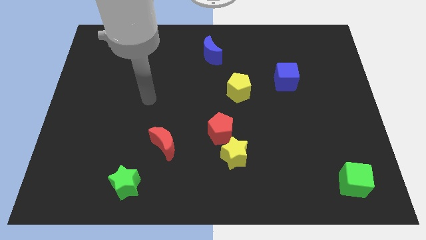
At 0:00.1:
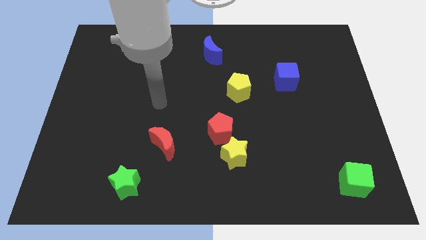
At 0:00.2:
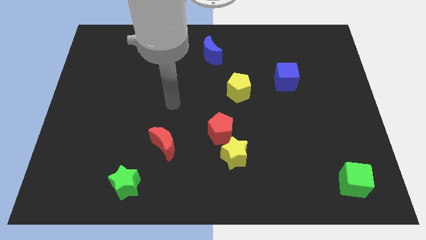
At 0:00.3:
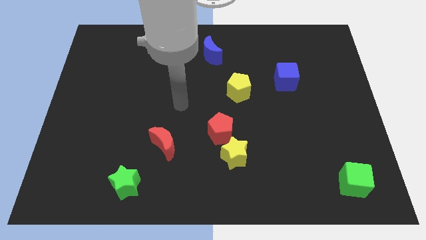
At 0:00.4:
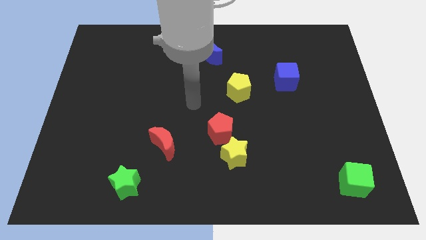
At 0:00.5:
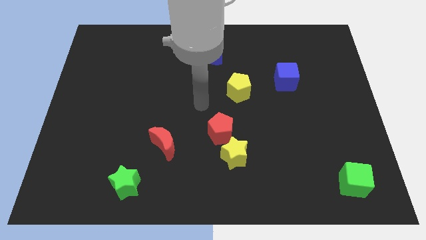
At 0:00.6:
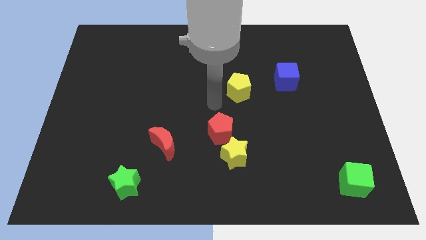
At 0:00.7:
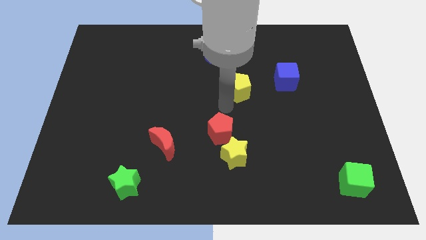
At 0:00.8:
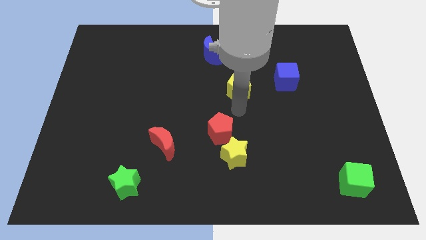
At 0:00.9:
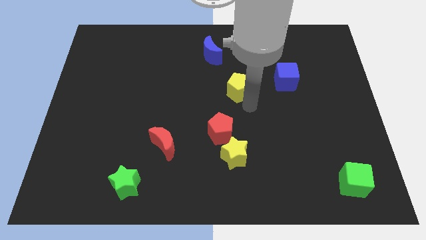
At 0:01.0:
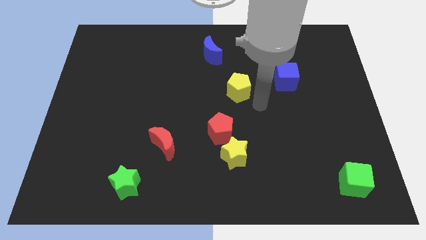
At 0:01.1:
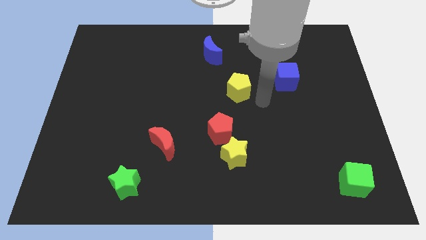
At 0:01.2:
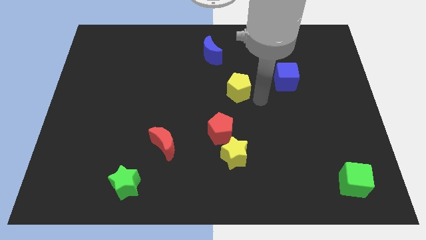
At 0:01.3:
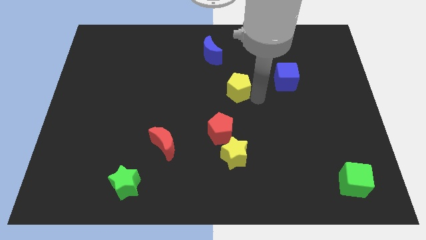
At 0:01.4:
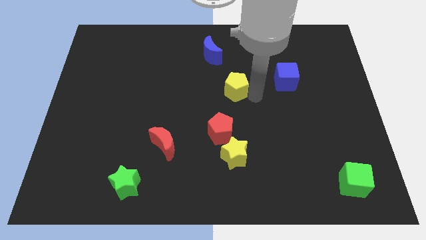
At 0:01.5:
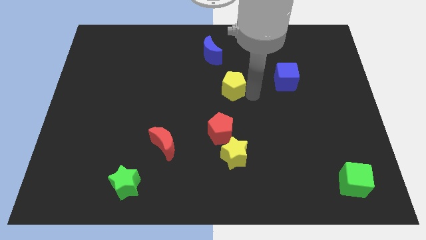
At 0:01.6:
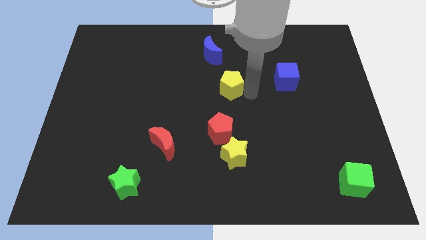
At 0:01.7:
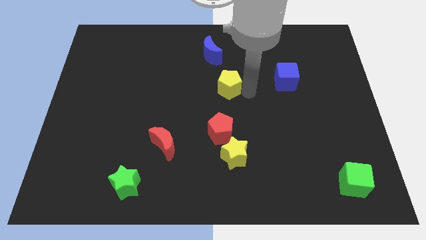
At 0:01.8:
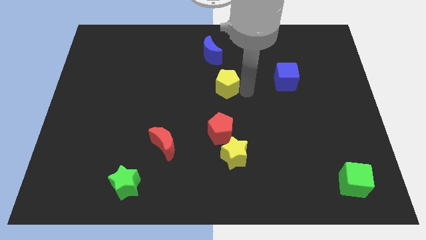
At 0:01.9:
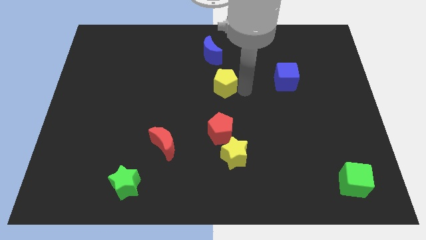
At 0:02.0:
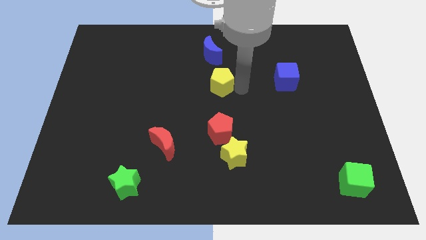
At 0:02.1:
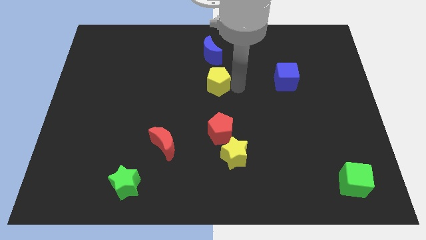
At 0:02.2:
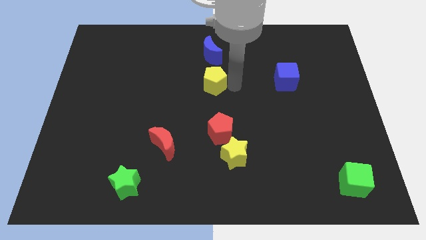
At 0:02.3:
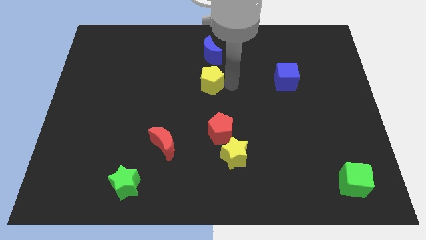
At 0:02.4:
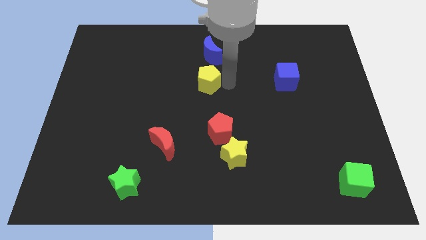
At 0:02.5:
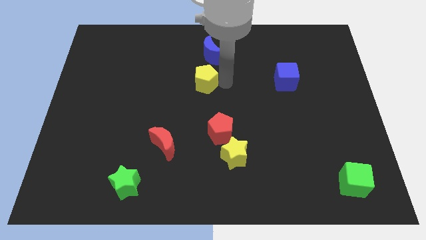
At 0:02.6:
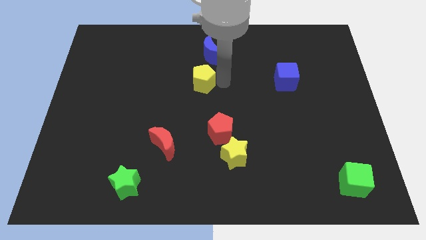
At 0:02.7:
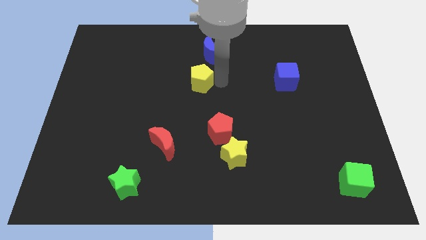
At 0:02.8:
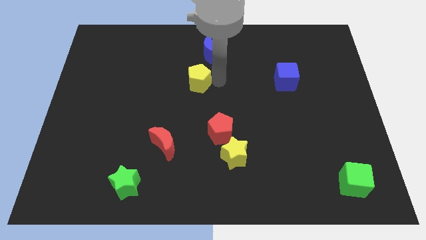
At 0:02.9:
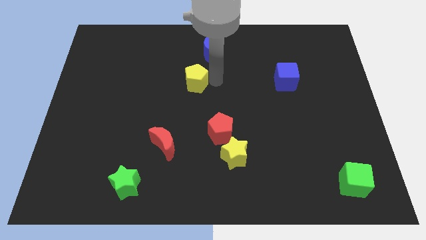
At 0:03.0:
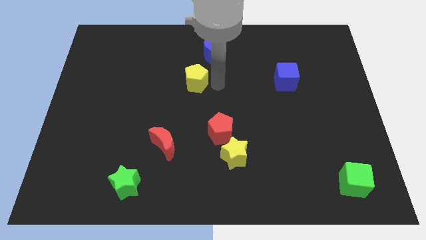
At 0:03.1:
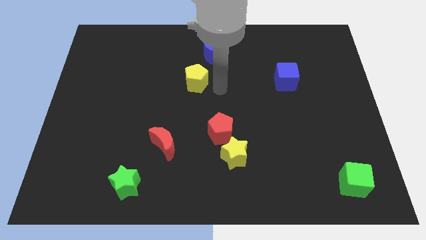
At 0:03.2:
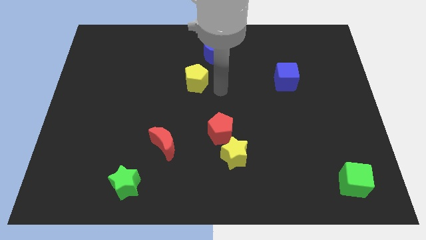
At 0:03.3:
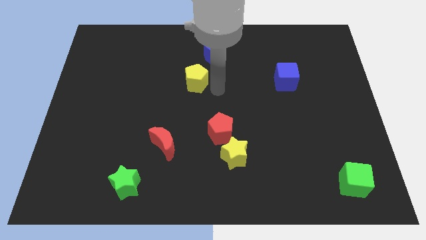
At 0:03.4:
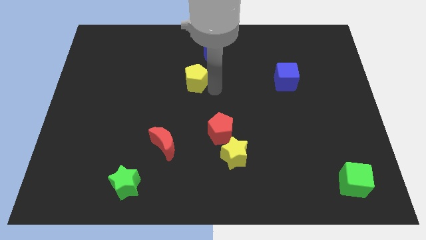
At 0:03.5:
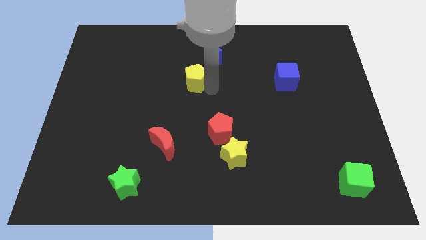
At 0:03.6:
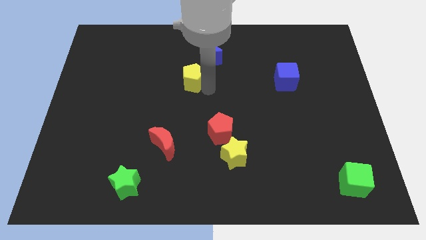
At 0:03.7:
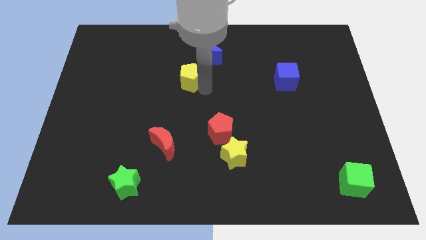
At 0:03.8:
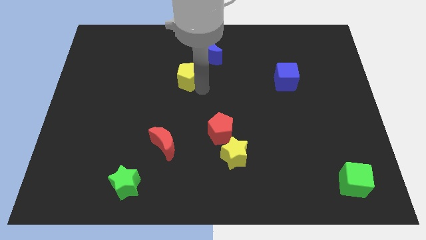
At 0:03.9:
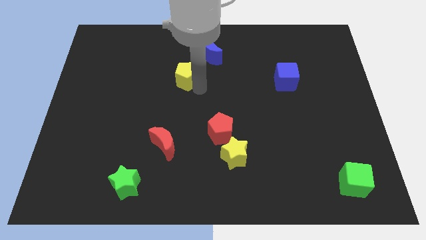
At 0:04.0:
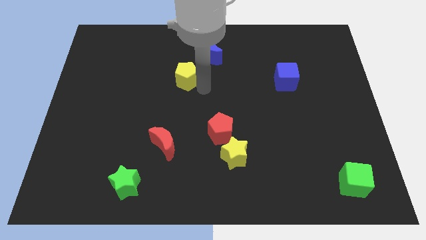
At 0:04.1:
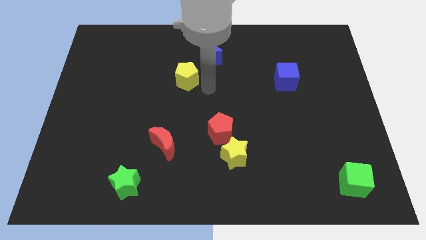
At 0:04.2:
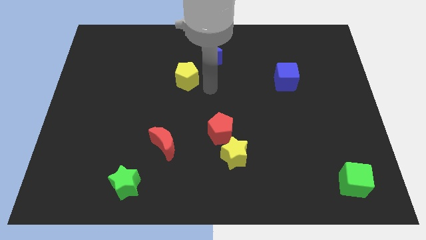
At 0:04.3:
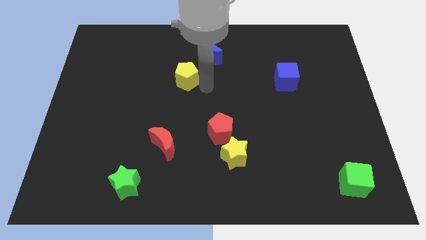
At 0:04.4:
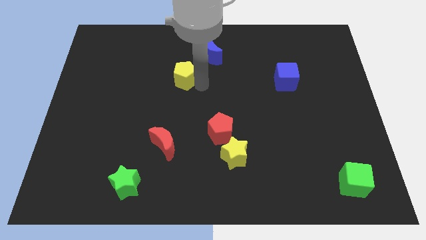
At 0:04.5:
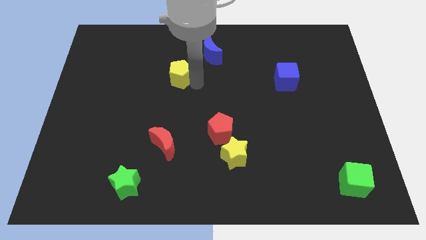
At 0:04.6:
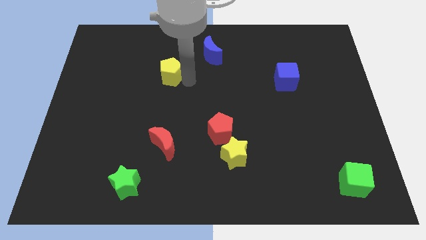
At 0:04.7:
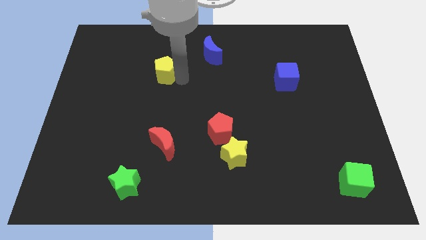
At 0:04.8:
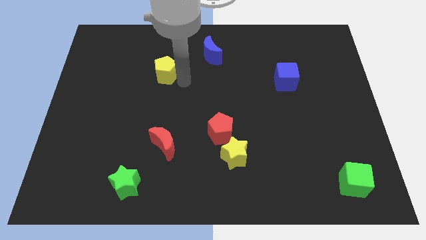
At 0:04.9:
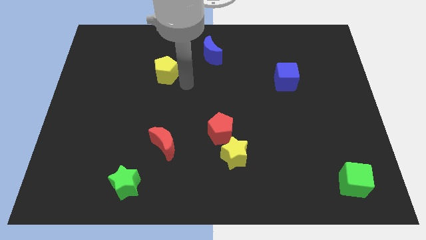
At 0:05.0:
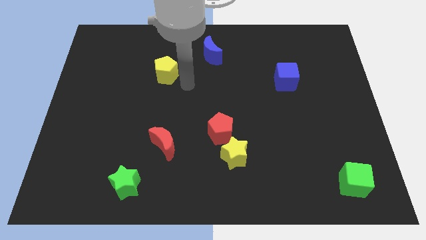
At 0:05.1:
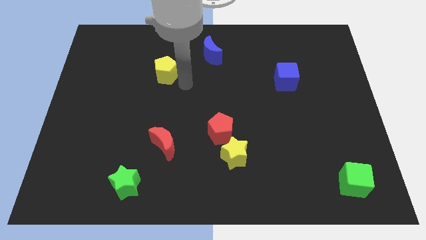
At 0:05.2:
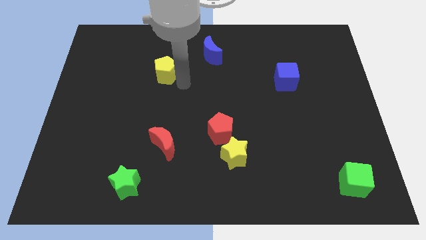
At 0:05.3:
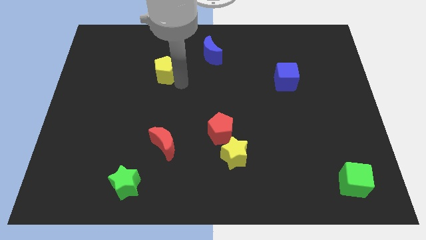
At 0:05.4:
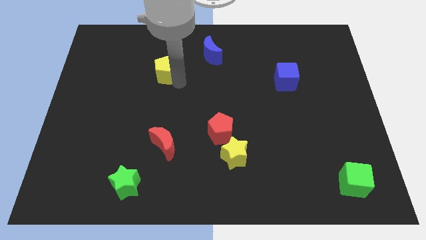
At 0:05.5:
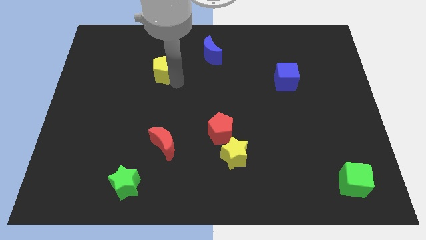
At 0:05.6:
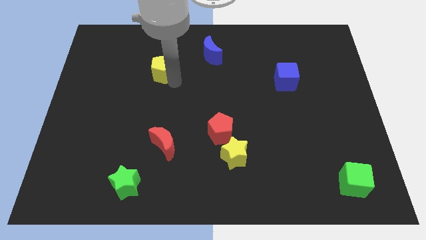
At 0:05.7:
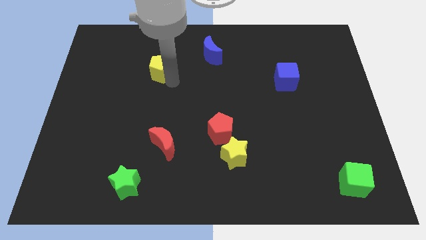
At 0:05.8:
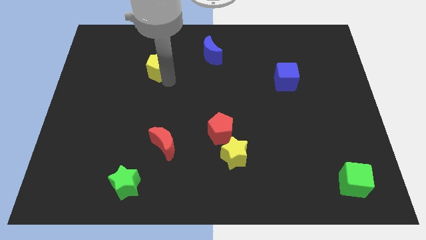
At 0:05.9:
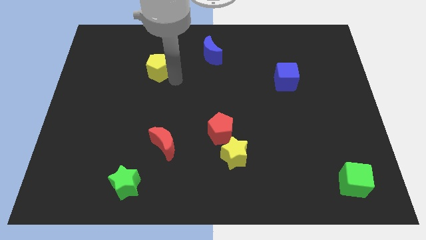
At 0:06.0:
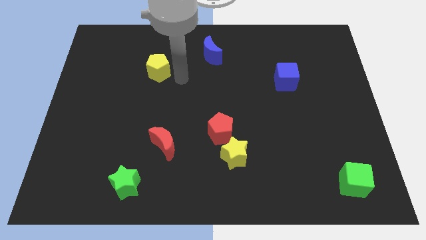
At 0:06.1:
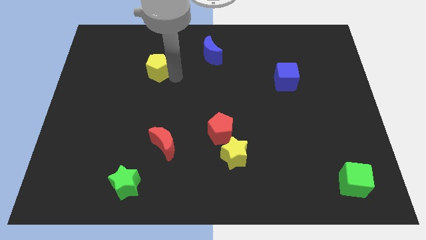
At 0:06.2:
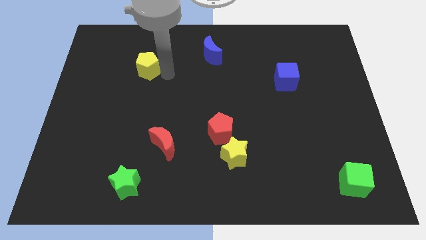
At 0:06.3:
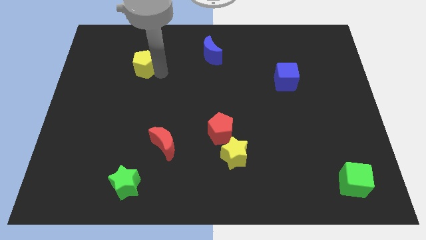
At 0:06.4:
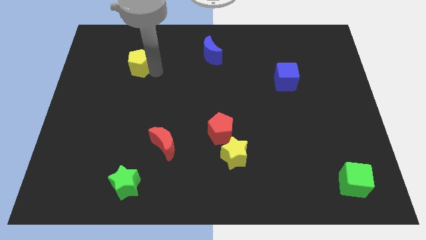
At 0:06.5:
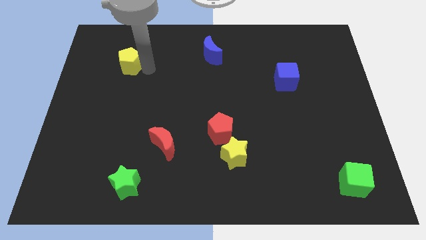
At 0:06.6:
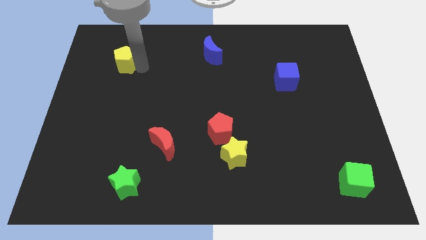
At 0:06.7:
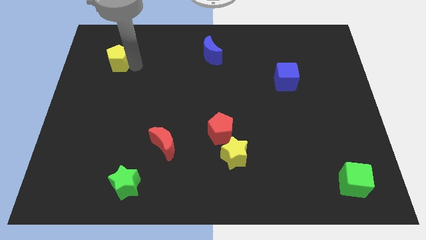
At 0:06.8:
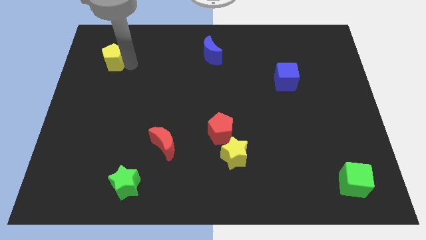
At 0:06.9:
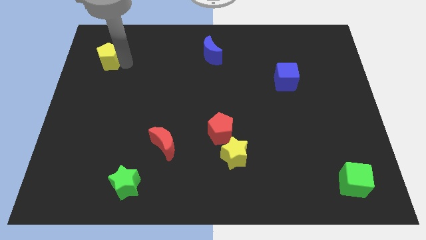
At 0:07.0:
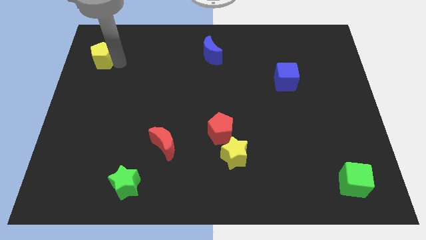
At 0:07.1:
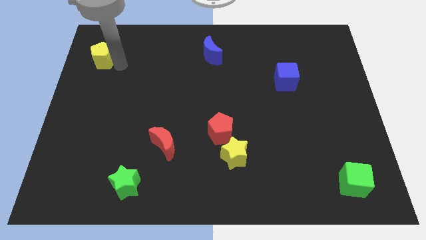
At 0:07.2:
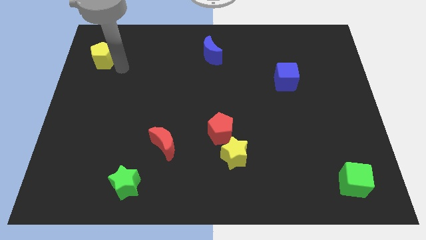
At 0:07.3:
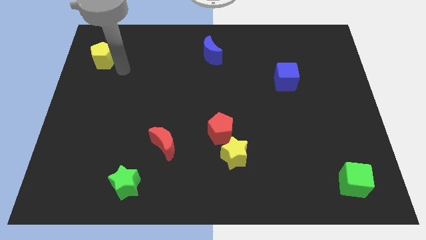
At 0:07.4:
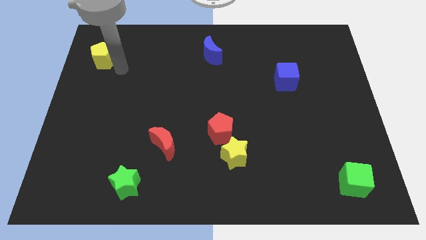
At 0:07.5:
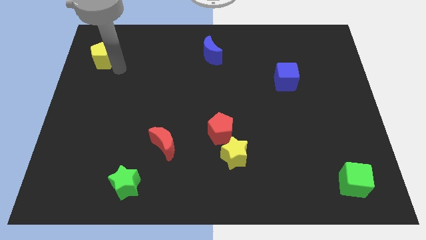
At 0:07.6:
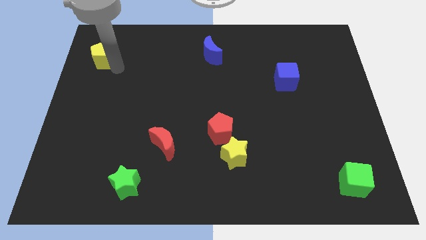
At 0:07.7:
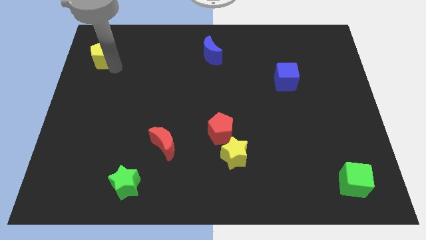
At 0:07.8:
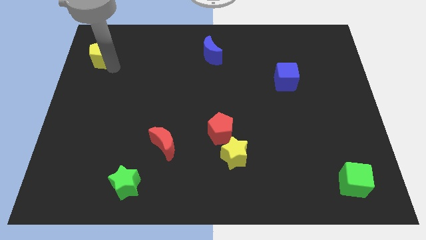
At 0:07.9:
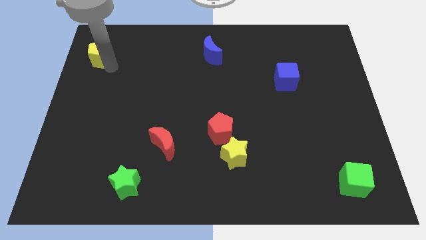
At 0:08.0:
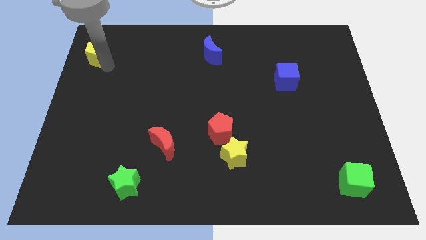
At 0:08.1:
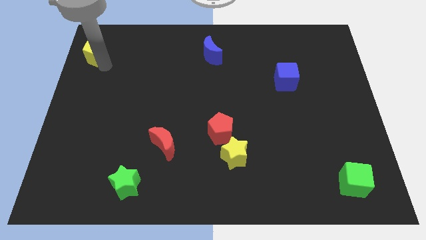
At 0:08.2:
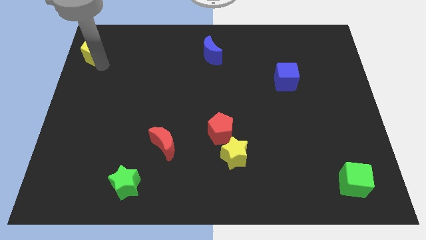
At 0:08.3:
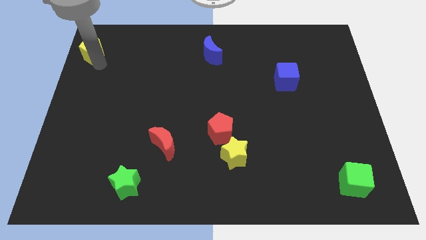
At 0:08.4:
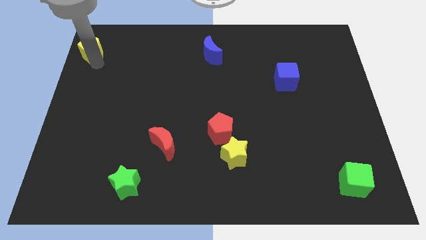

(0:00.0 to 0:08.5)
move the yellow pentagon to the top left
